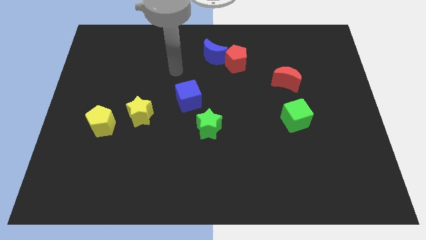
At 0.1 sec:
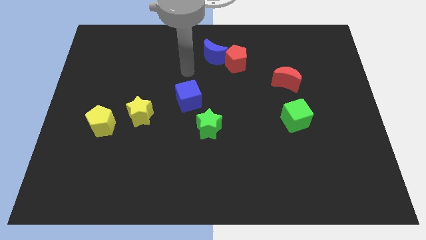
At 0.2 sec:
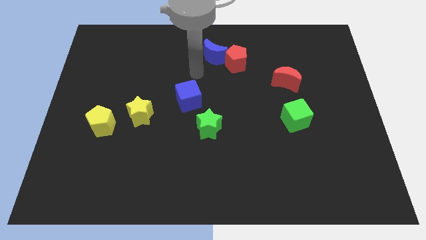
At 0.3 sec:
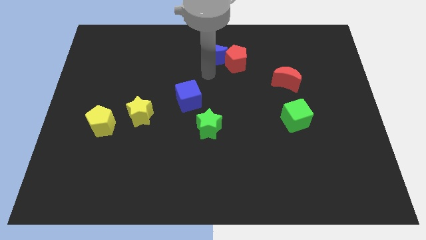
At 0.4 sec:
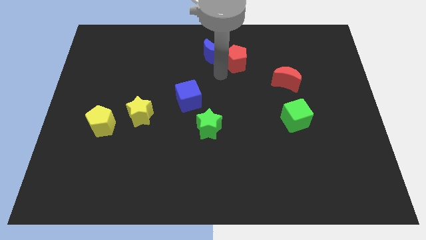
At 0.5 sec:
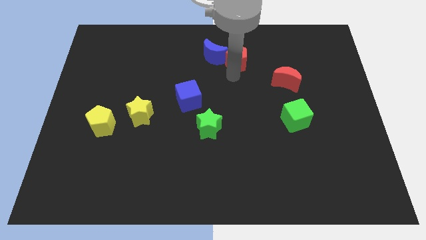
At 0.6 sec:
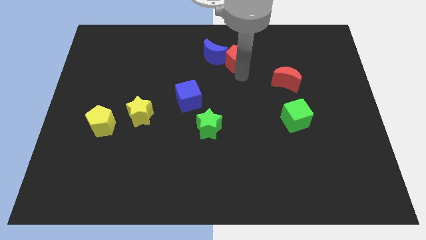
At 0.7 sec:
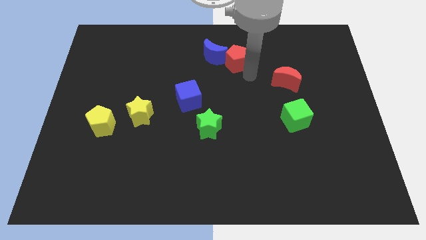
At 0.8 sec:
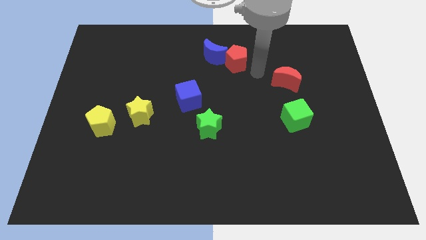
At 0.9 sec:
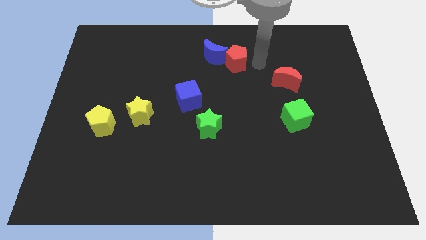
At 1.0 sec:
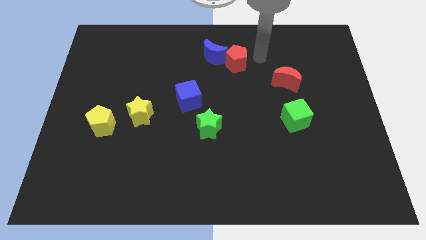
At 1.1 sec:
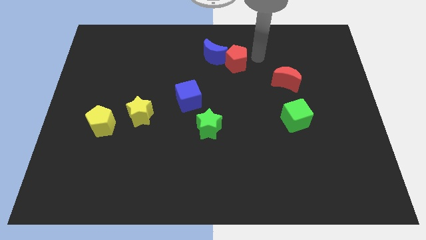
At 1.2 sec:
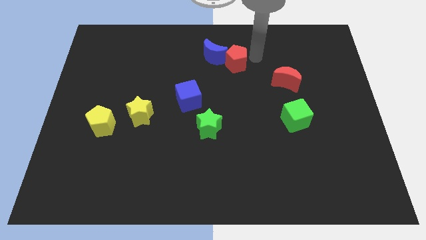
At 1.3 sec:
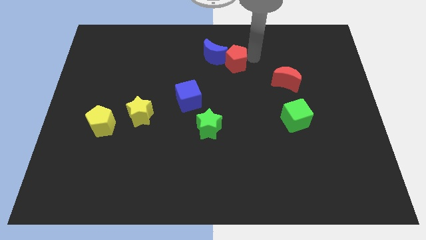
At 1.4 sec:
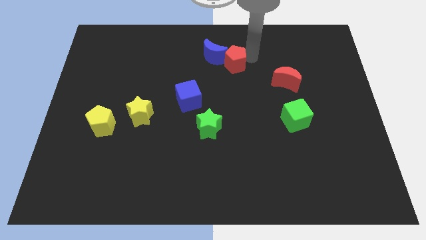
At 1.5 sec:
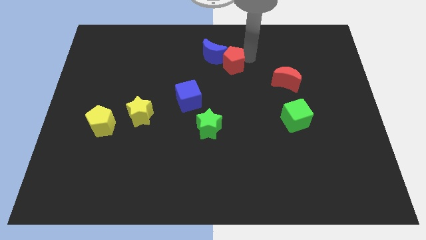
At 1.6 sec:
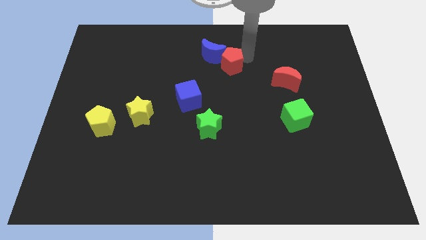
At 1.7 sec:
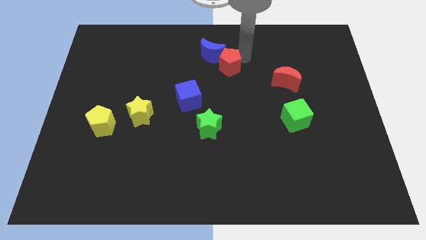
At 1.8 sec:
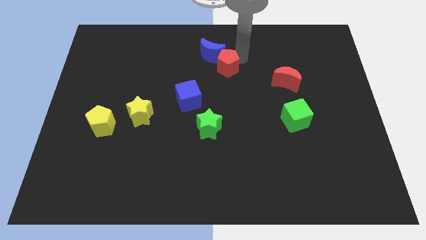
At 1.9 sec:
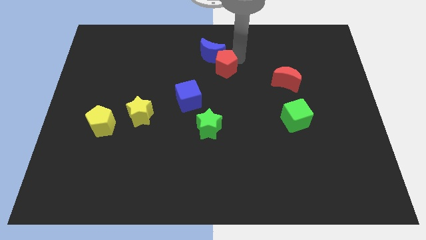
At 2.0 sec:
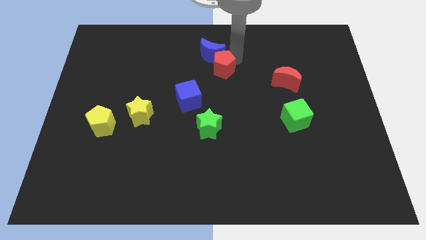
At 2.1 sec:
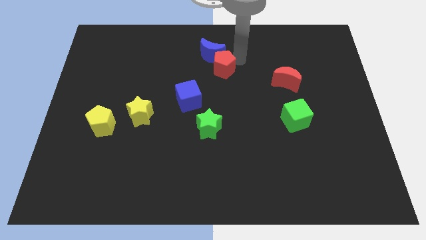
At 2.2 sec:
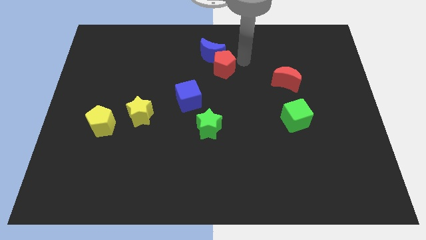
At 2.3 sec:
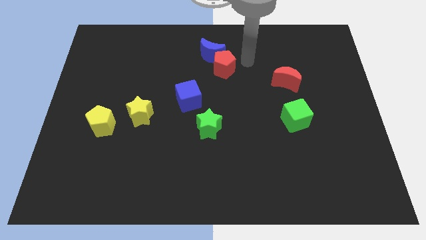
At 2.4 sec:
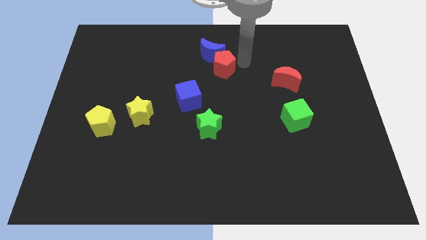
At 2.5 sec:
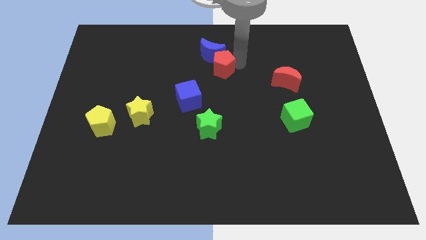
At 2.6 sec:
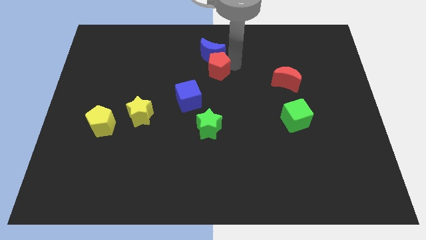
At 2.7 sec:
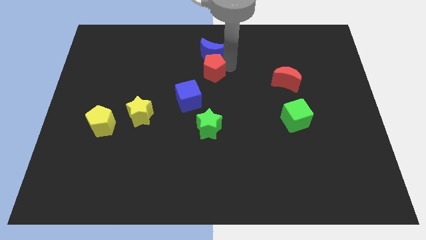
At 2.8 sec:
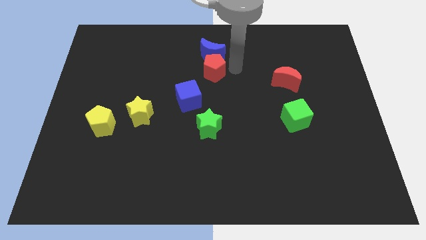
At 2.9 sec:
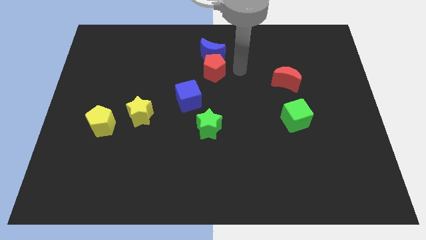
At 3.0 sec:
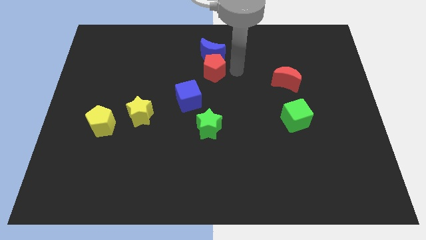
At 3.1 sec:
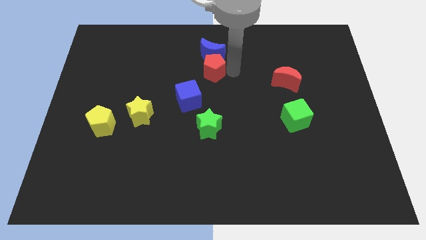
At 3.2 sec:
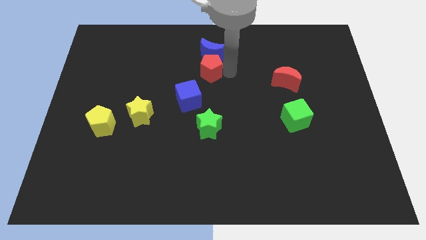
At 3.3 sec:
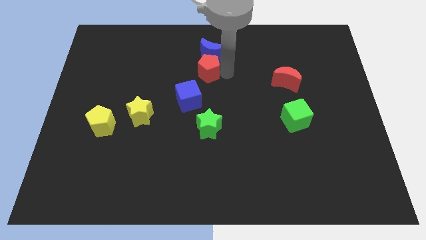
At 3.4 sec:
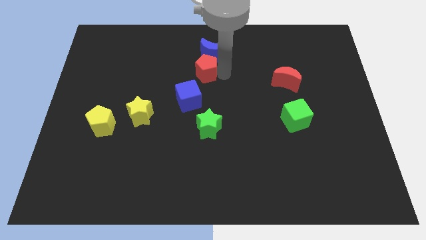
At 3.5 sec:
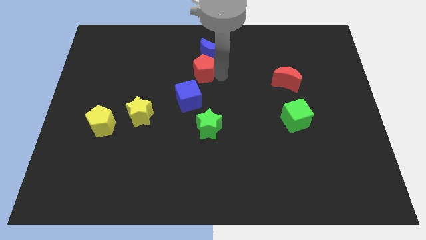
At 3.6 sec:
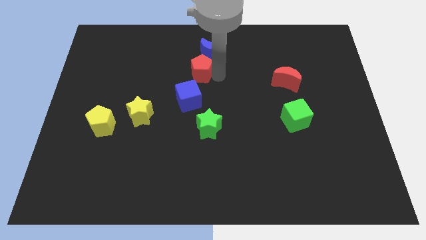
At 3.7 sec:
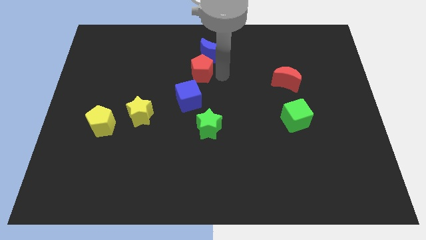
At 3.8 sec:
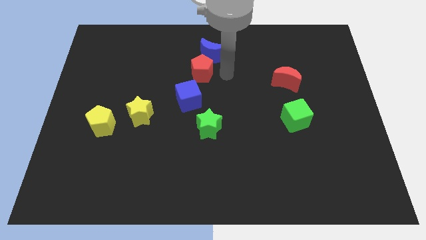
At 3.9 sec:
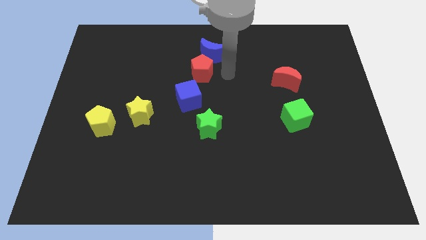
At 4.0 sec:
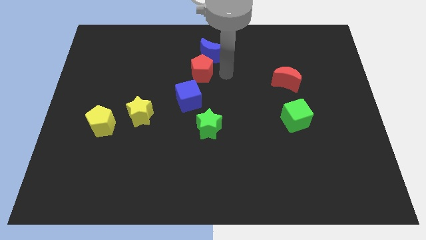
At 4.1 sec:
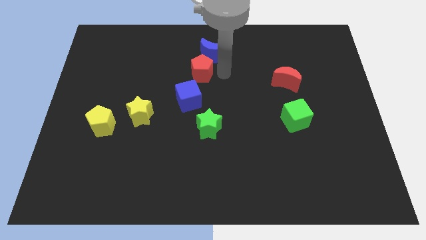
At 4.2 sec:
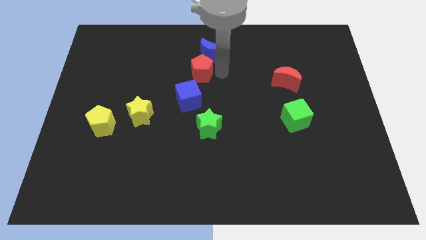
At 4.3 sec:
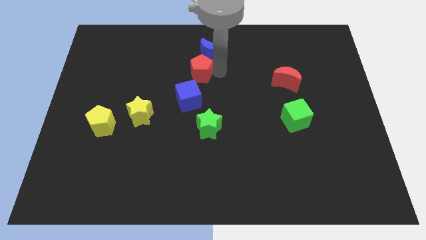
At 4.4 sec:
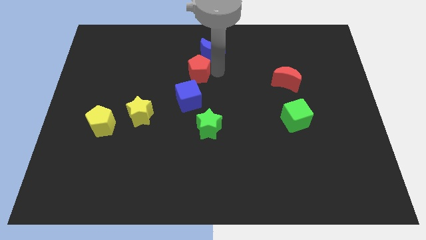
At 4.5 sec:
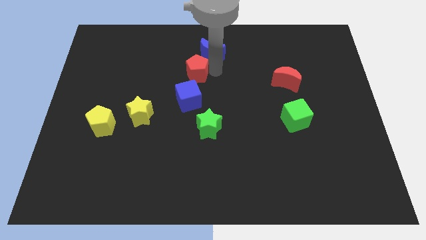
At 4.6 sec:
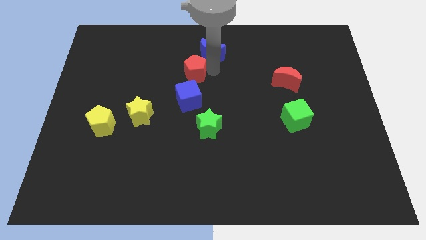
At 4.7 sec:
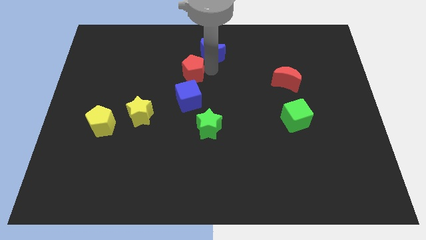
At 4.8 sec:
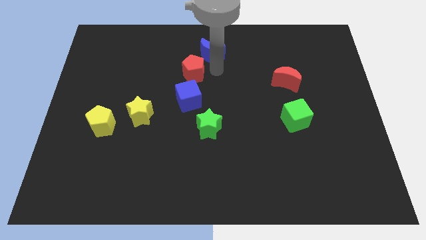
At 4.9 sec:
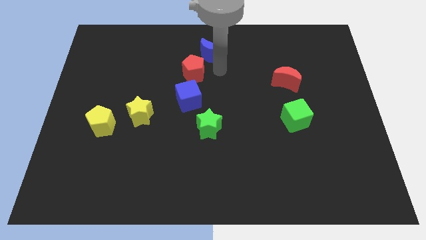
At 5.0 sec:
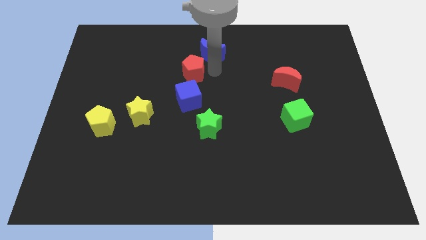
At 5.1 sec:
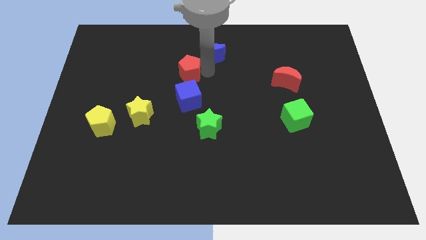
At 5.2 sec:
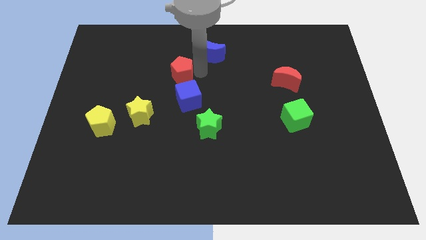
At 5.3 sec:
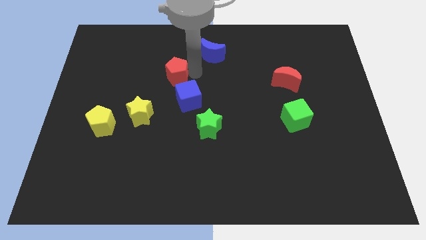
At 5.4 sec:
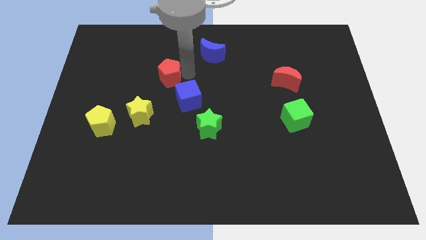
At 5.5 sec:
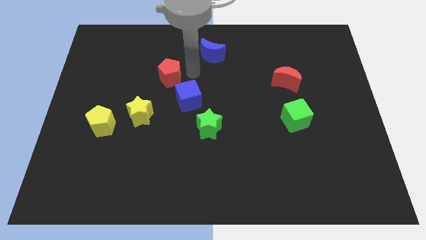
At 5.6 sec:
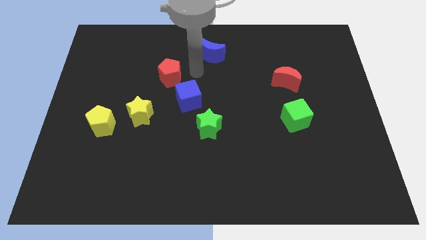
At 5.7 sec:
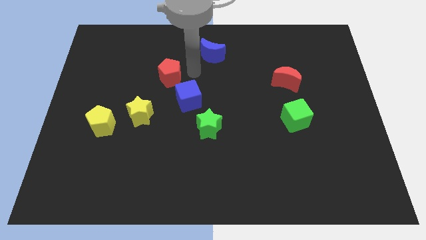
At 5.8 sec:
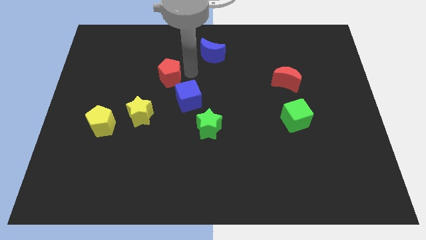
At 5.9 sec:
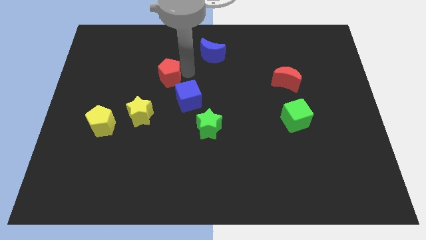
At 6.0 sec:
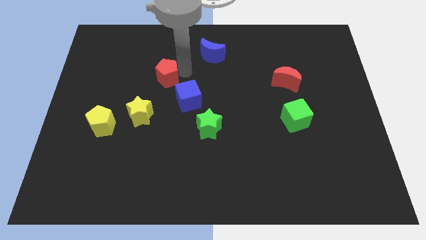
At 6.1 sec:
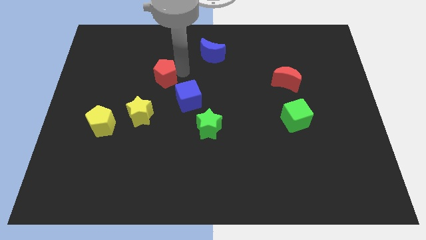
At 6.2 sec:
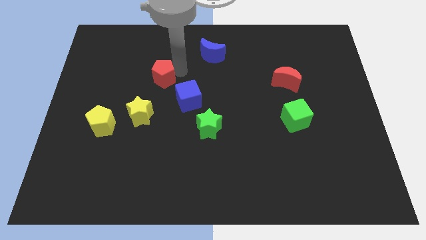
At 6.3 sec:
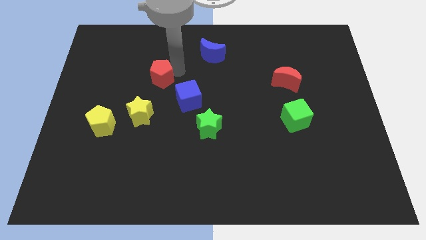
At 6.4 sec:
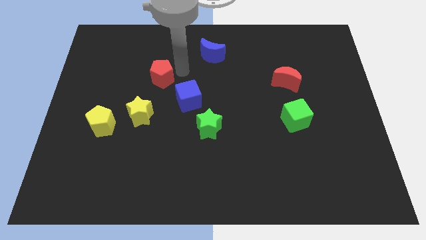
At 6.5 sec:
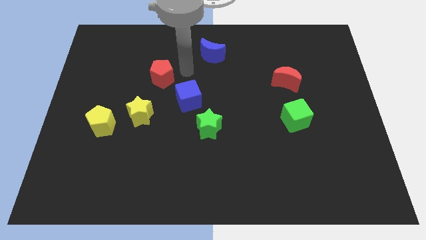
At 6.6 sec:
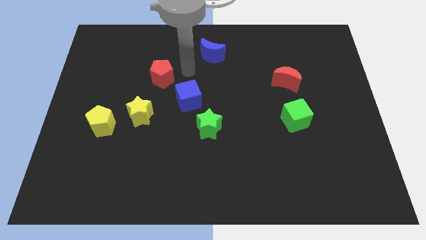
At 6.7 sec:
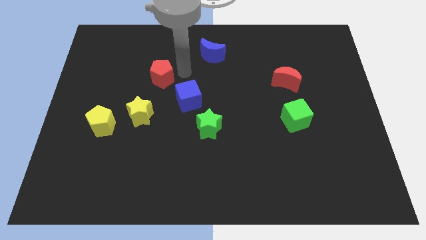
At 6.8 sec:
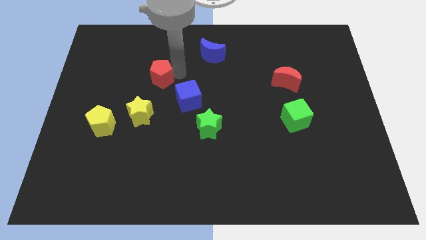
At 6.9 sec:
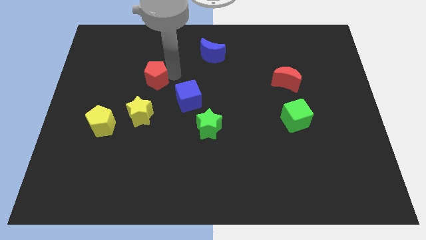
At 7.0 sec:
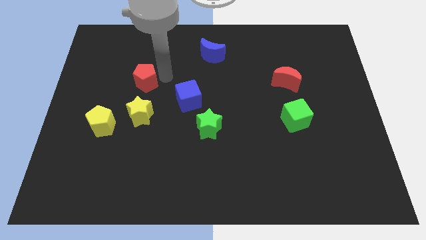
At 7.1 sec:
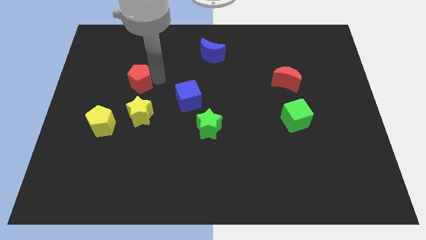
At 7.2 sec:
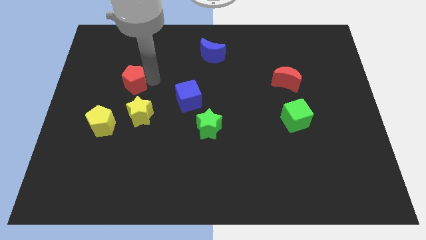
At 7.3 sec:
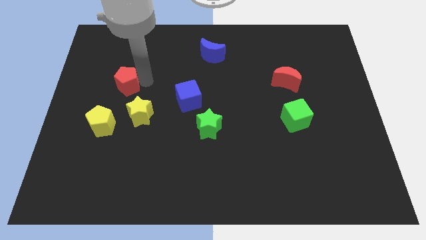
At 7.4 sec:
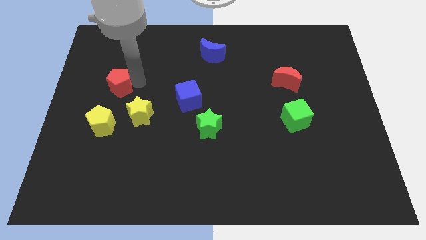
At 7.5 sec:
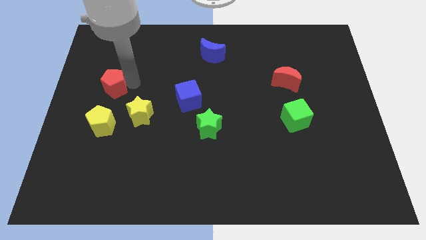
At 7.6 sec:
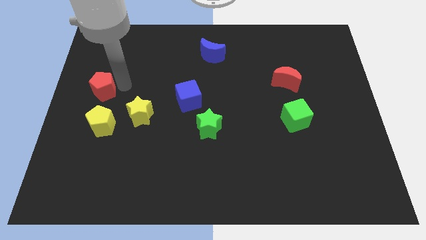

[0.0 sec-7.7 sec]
put the red pentagon to the left side
